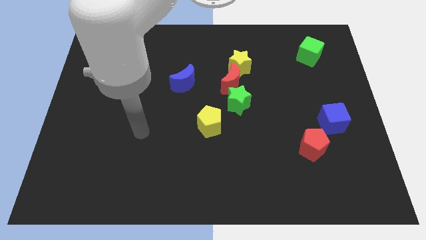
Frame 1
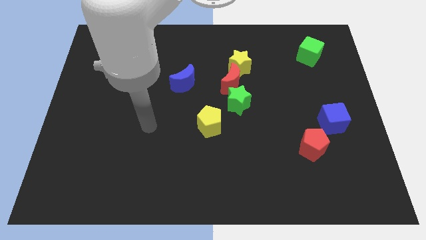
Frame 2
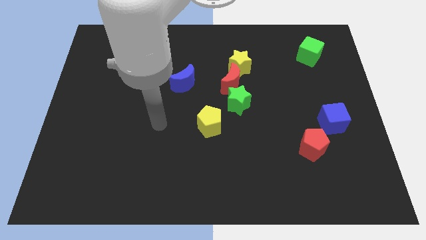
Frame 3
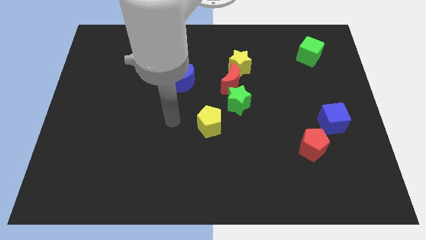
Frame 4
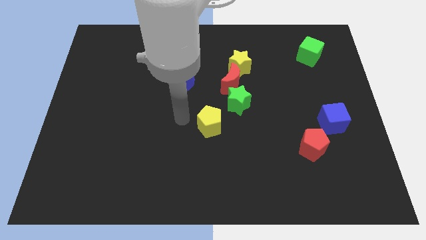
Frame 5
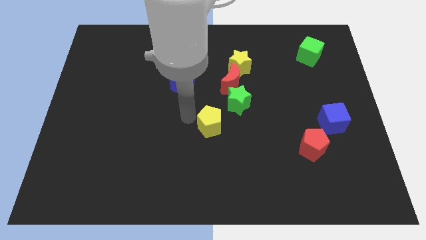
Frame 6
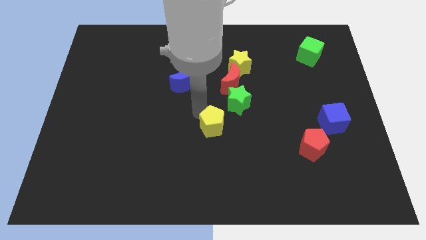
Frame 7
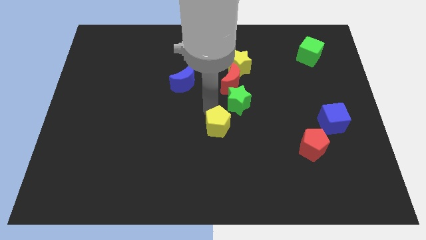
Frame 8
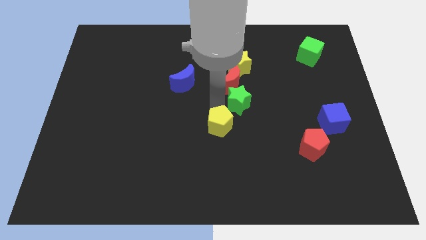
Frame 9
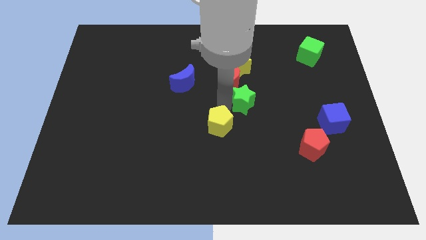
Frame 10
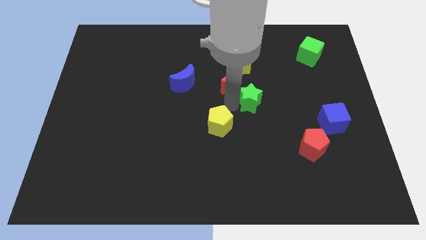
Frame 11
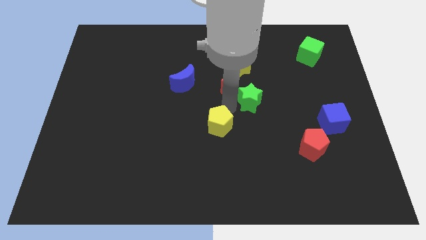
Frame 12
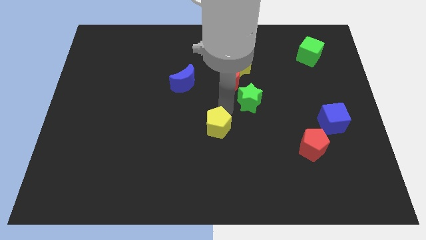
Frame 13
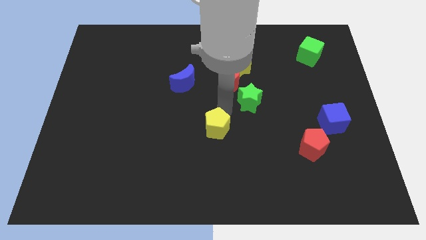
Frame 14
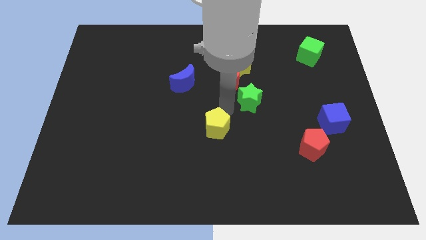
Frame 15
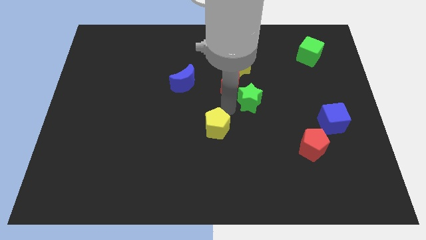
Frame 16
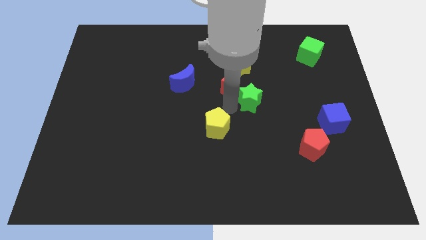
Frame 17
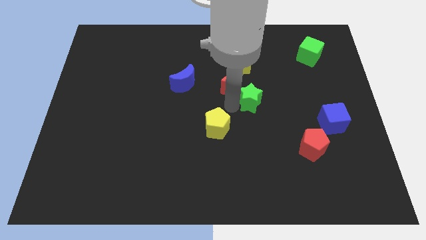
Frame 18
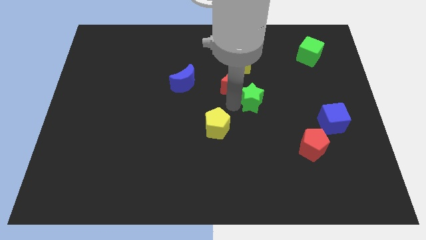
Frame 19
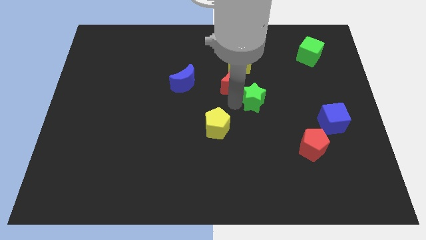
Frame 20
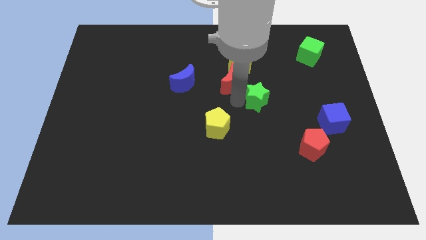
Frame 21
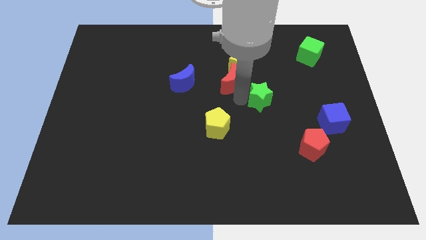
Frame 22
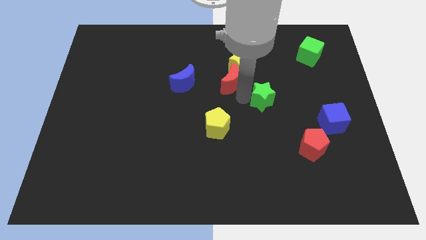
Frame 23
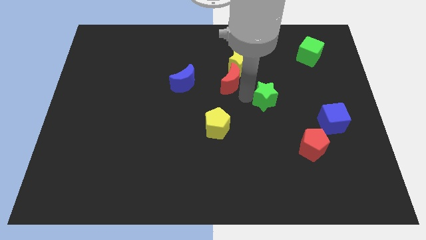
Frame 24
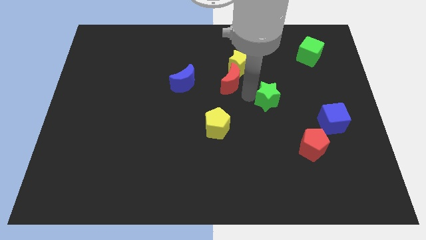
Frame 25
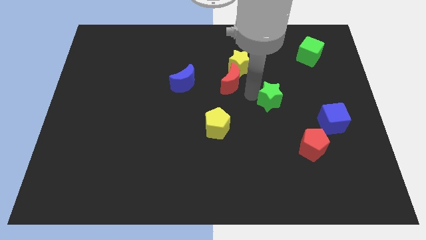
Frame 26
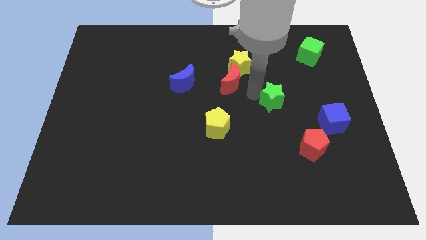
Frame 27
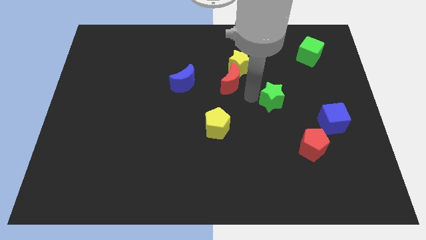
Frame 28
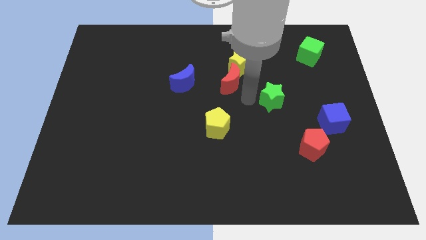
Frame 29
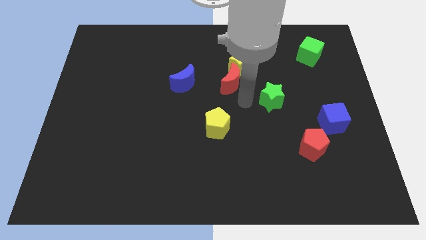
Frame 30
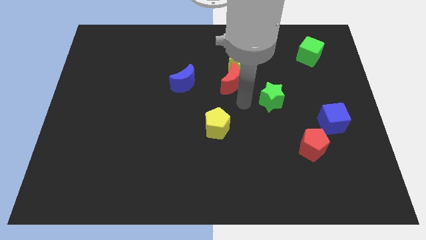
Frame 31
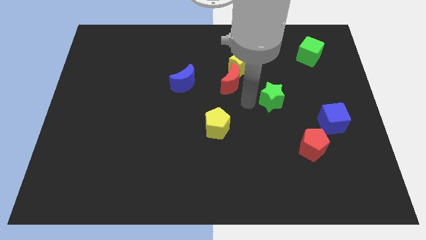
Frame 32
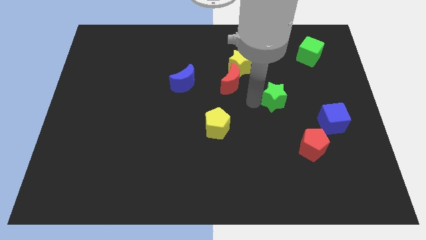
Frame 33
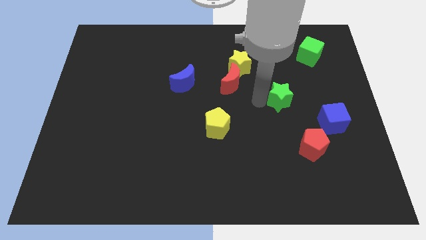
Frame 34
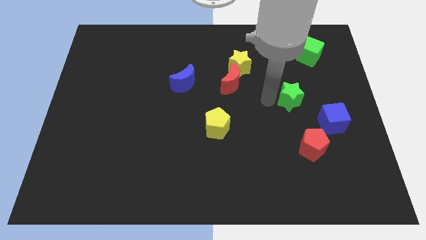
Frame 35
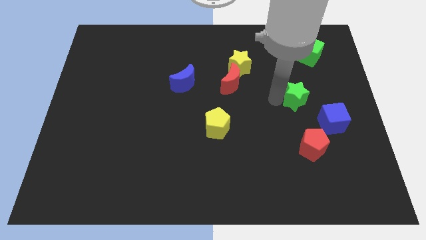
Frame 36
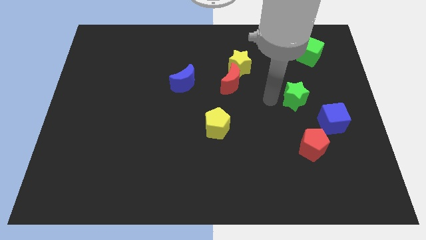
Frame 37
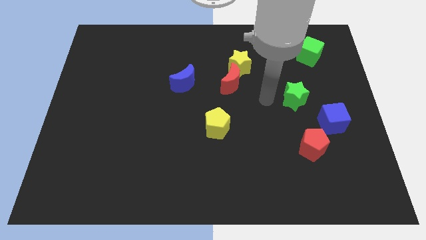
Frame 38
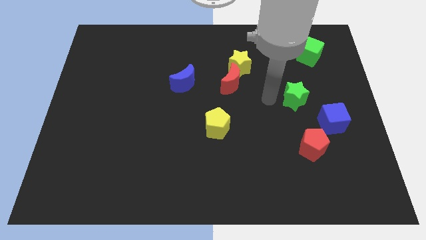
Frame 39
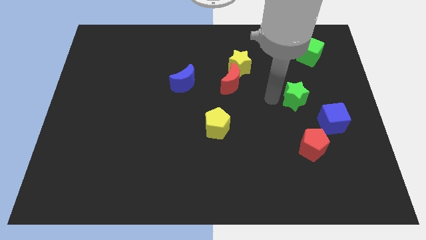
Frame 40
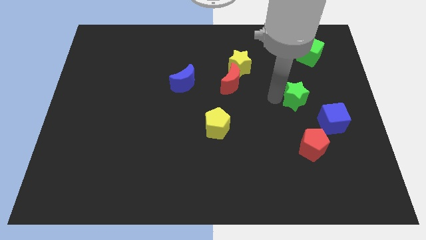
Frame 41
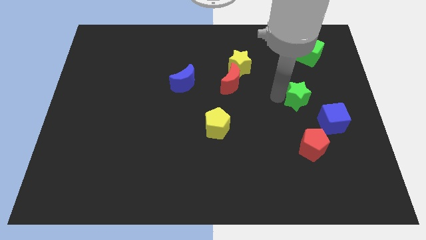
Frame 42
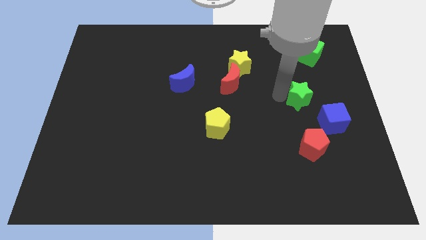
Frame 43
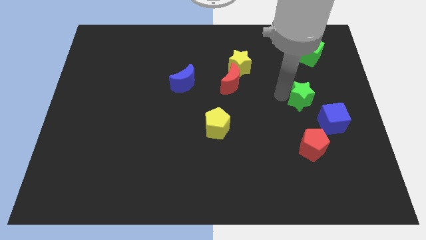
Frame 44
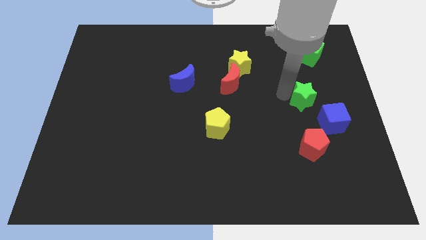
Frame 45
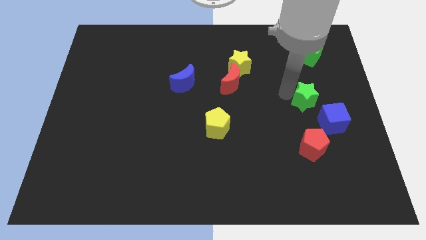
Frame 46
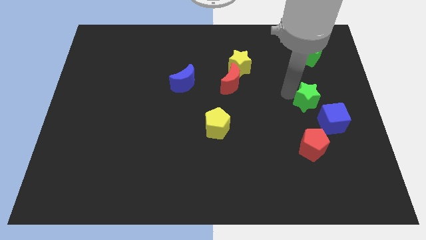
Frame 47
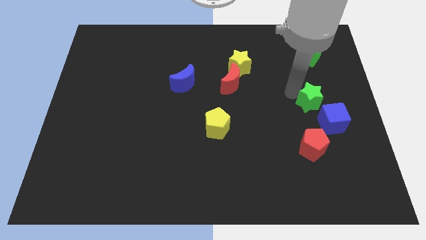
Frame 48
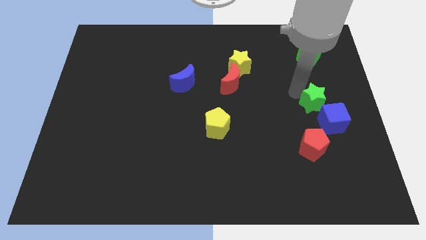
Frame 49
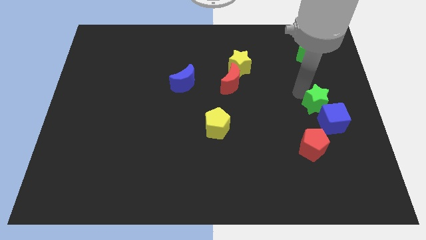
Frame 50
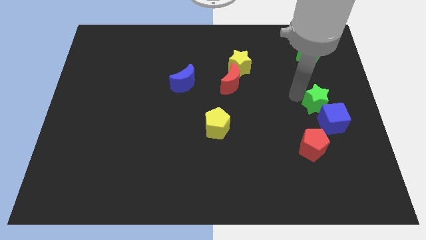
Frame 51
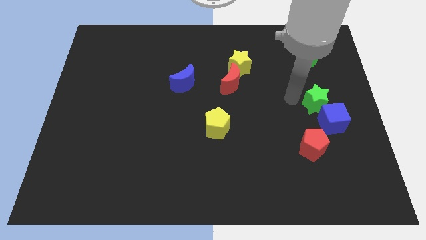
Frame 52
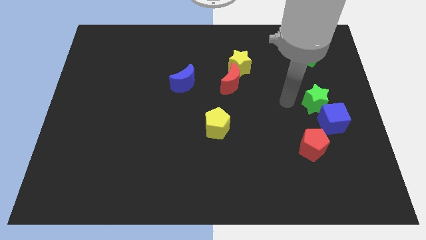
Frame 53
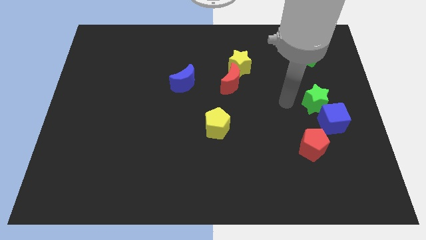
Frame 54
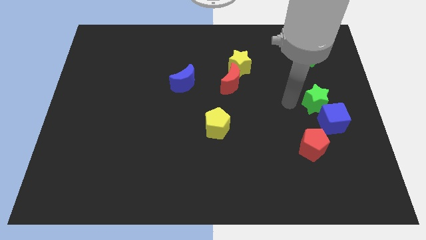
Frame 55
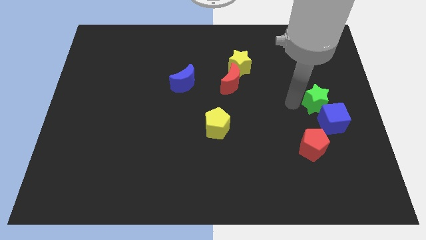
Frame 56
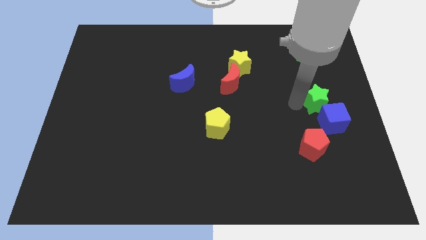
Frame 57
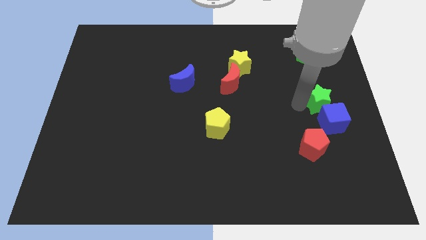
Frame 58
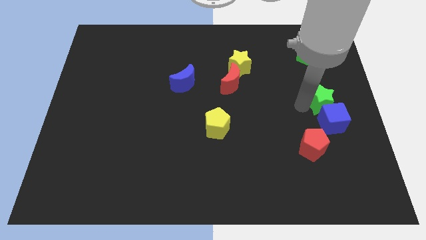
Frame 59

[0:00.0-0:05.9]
move the green star to the right side of the board
